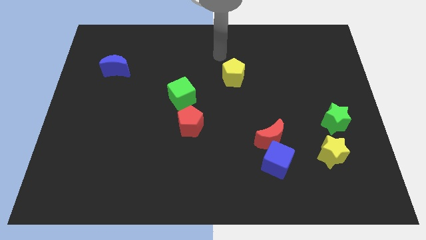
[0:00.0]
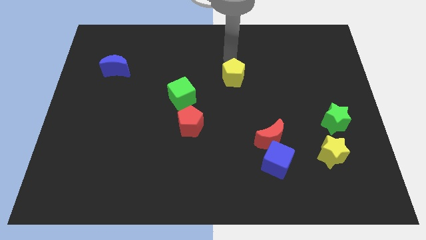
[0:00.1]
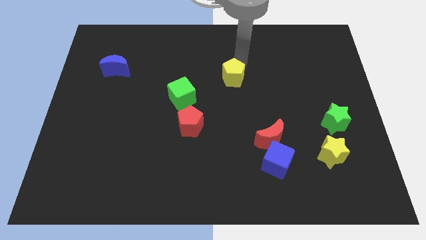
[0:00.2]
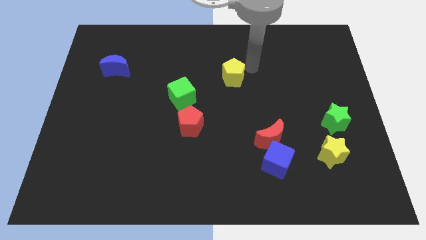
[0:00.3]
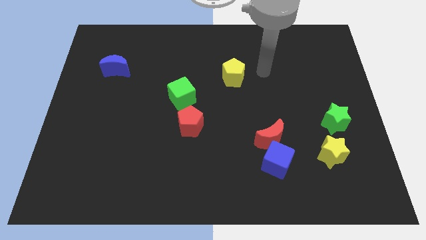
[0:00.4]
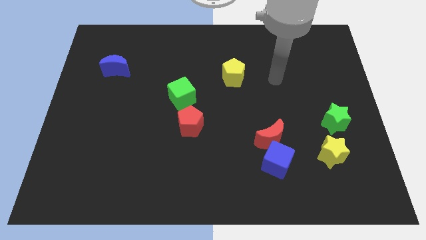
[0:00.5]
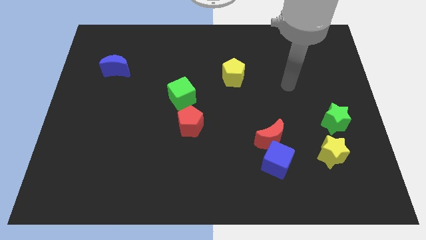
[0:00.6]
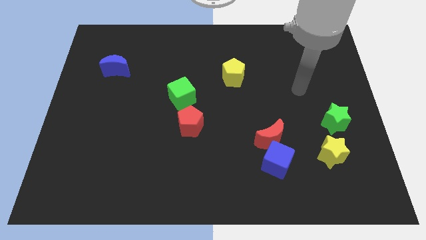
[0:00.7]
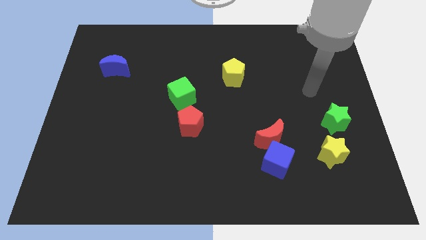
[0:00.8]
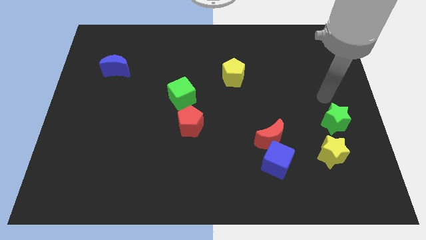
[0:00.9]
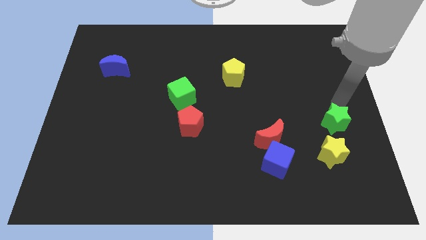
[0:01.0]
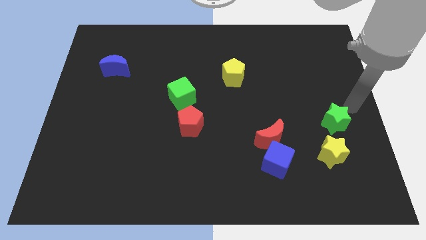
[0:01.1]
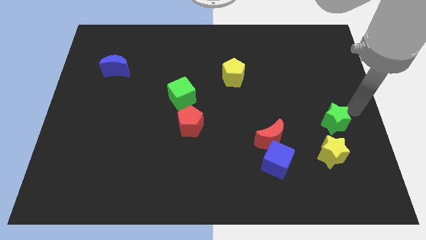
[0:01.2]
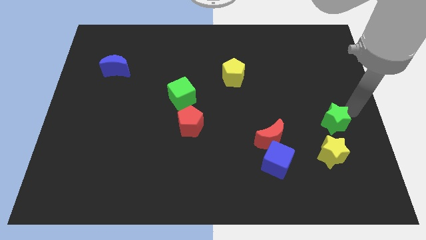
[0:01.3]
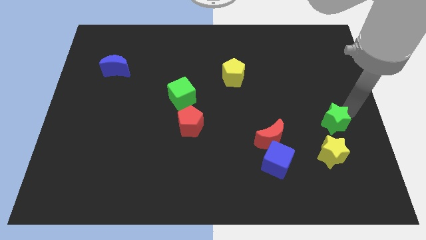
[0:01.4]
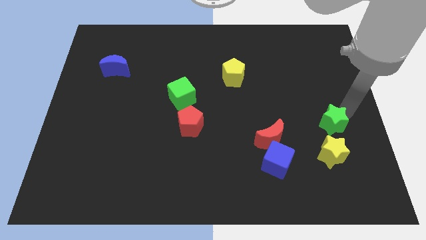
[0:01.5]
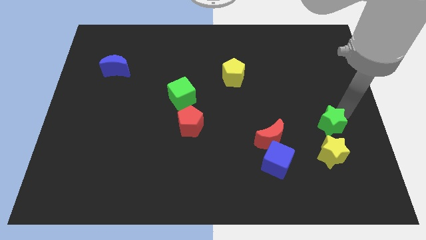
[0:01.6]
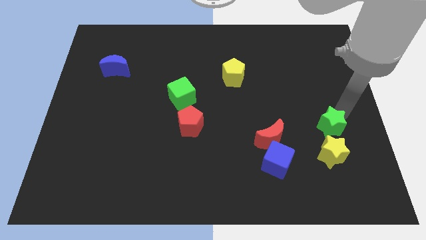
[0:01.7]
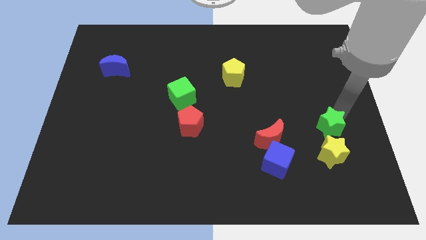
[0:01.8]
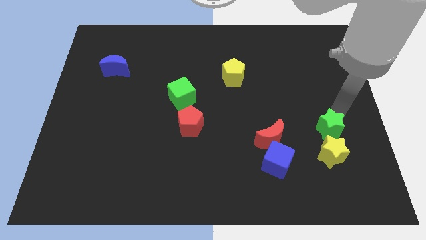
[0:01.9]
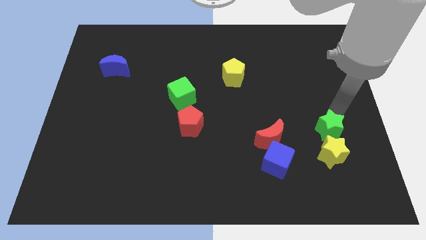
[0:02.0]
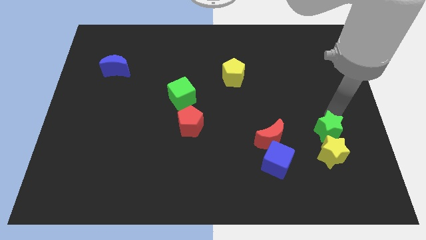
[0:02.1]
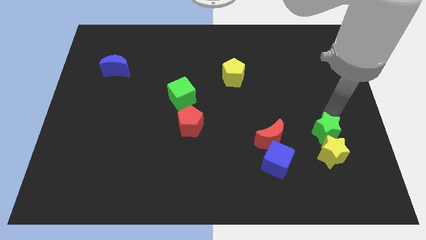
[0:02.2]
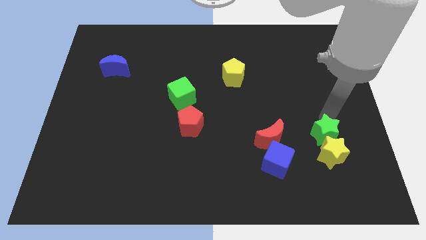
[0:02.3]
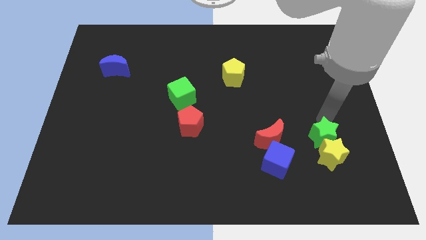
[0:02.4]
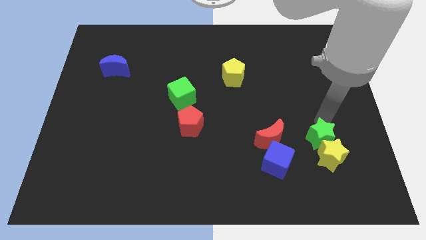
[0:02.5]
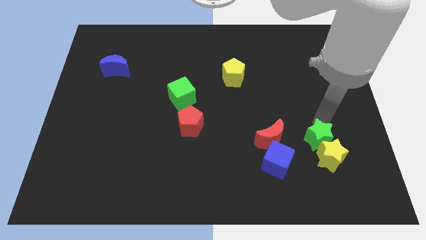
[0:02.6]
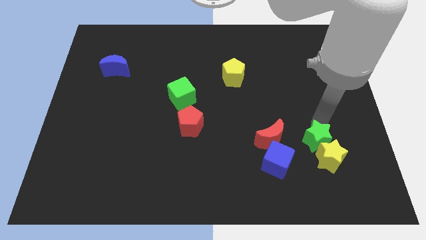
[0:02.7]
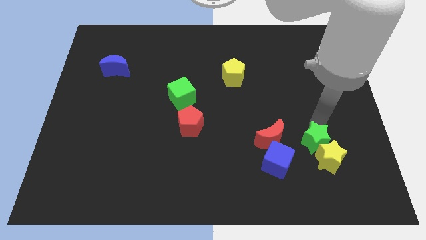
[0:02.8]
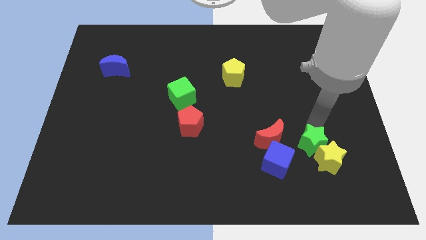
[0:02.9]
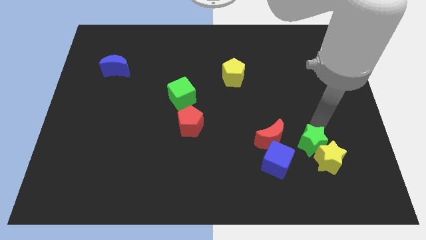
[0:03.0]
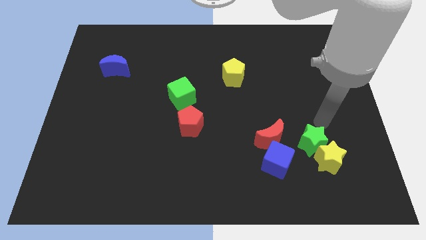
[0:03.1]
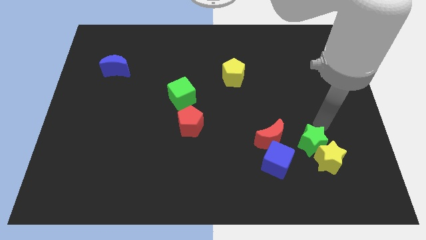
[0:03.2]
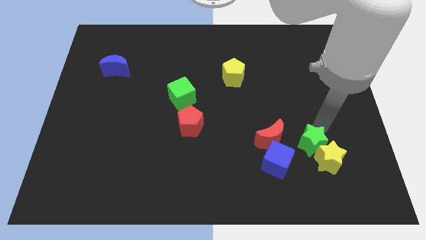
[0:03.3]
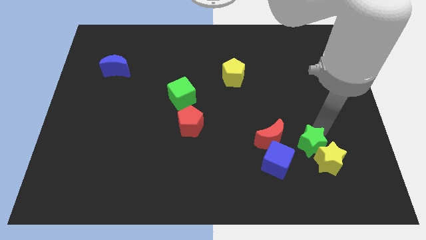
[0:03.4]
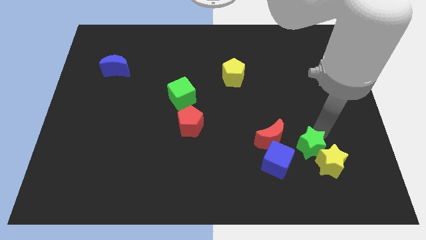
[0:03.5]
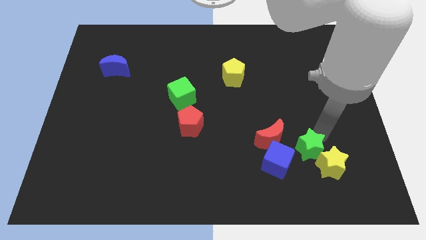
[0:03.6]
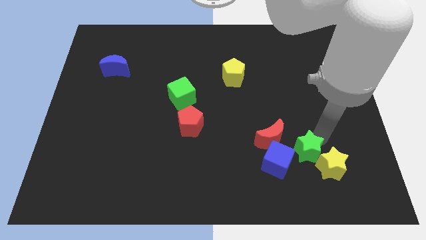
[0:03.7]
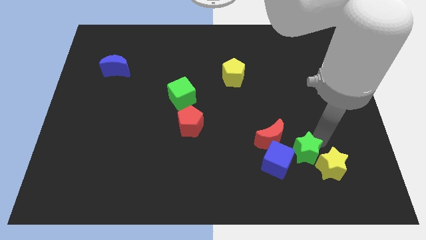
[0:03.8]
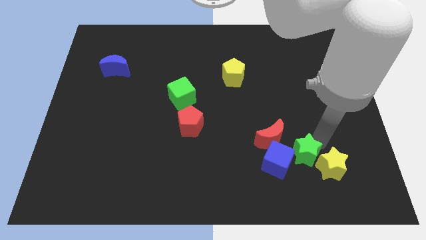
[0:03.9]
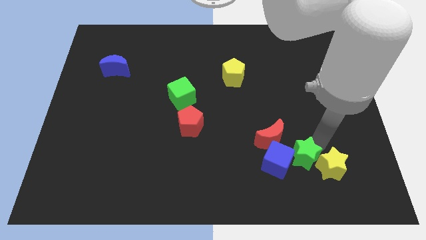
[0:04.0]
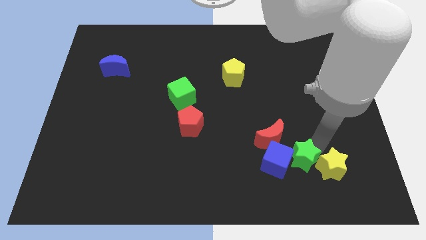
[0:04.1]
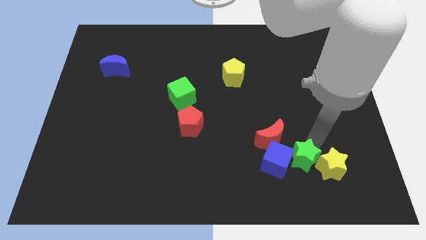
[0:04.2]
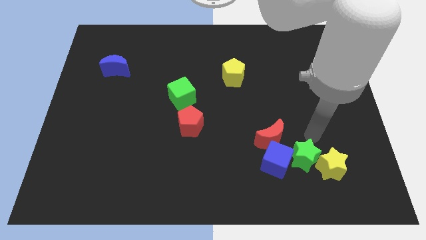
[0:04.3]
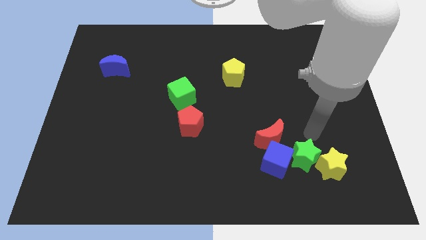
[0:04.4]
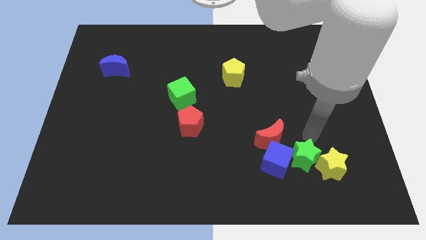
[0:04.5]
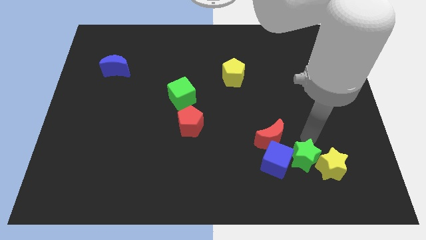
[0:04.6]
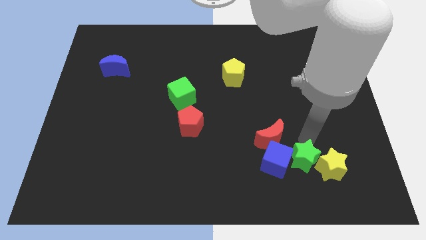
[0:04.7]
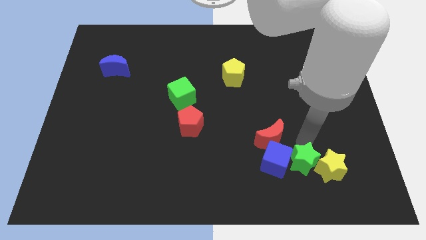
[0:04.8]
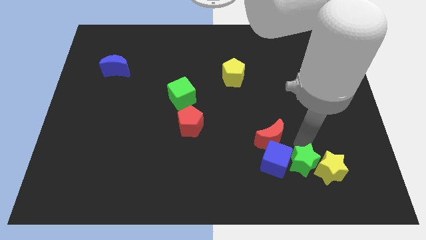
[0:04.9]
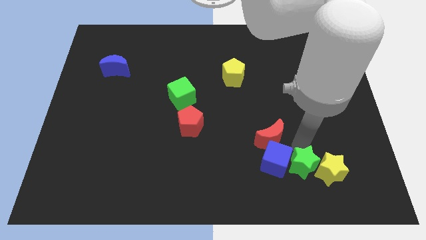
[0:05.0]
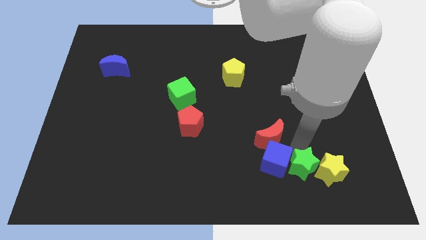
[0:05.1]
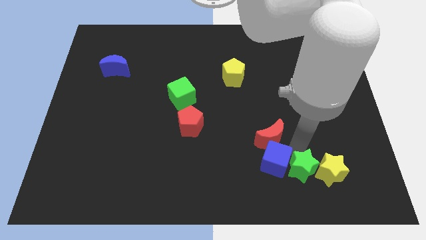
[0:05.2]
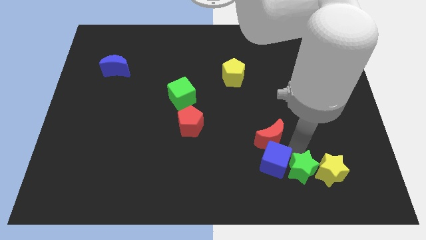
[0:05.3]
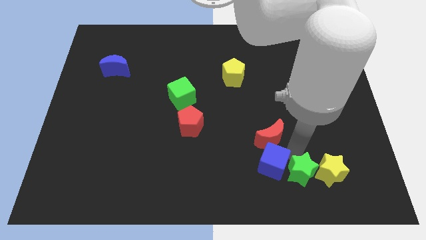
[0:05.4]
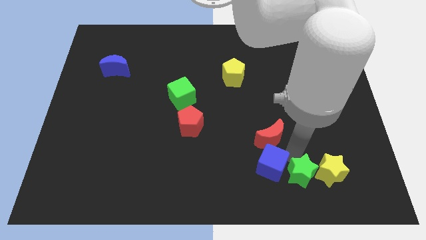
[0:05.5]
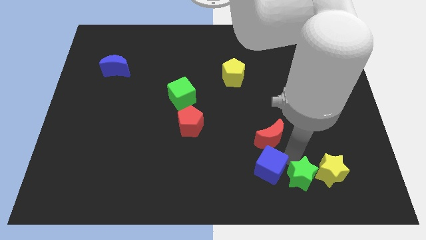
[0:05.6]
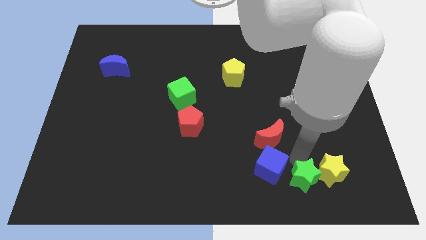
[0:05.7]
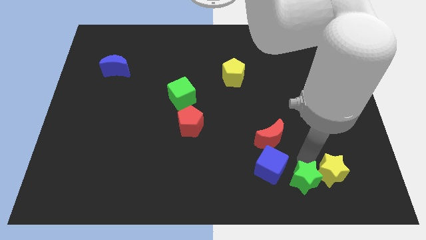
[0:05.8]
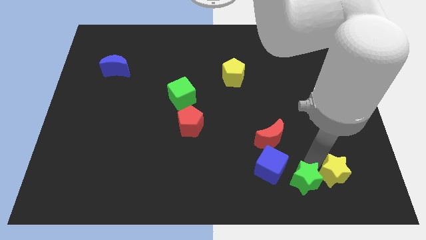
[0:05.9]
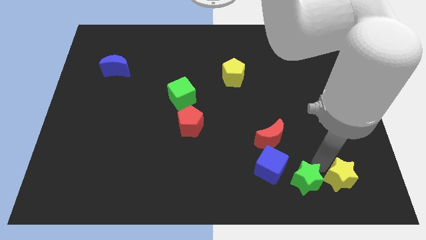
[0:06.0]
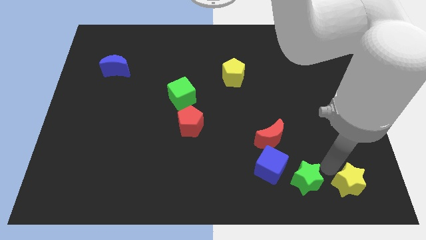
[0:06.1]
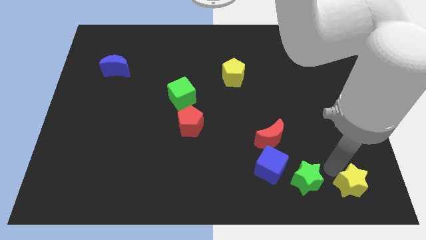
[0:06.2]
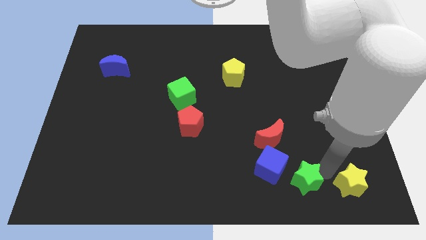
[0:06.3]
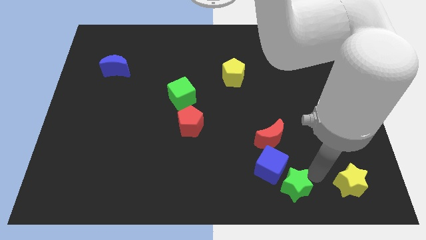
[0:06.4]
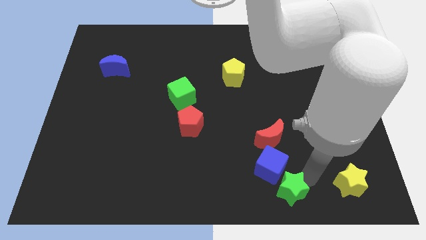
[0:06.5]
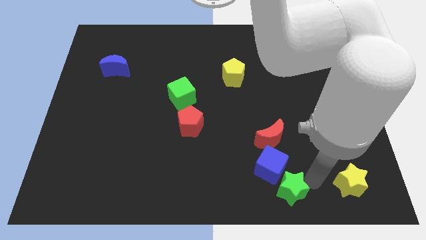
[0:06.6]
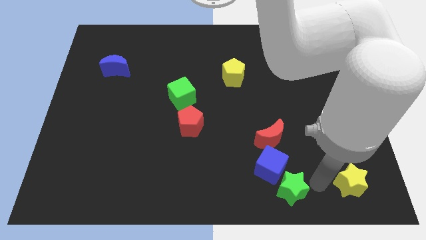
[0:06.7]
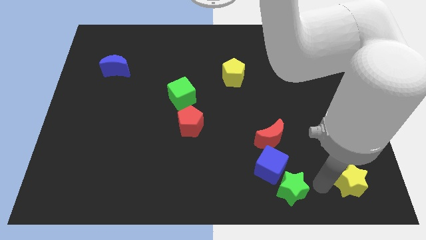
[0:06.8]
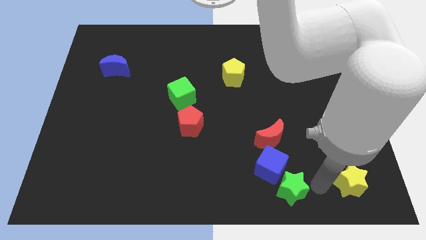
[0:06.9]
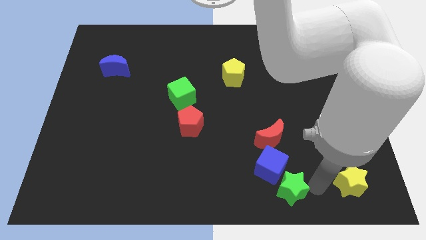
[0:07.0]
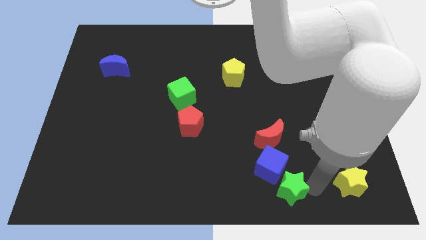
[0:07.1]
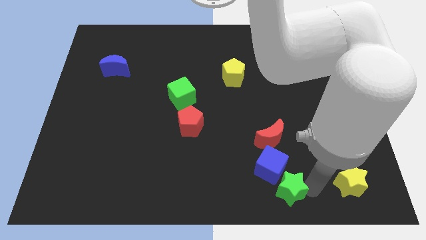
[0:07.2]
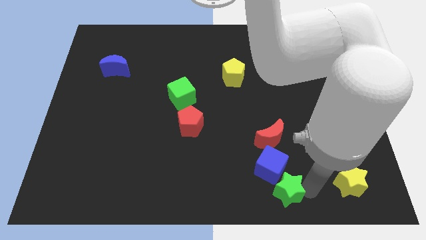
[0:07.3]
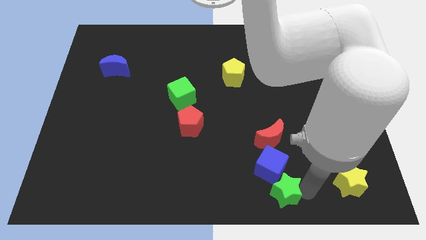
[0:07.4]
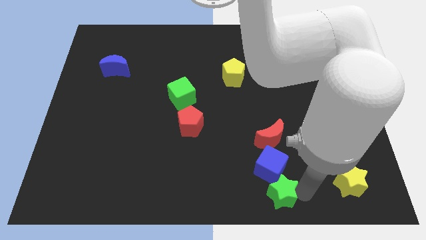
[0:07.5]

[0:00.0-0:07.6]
slide the green star to the bottom
